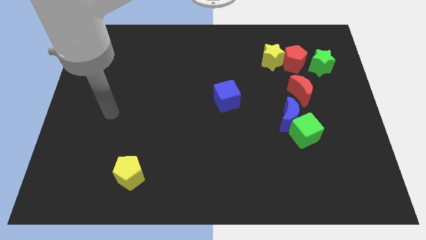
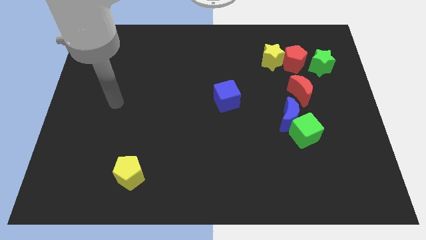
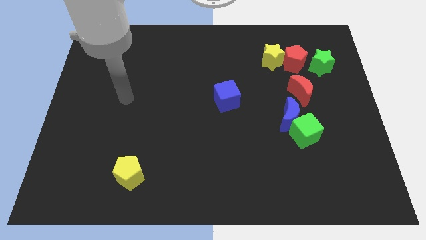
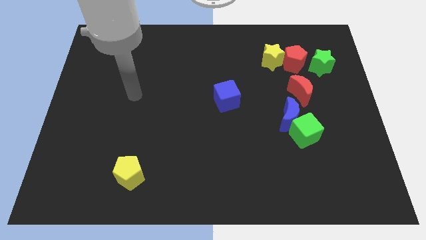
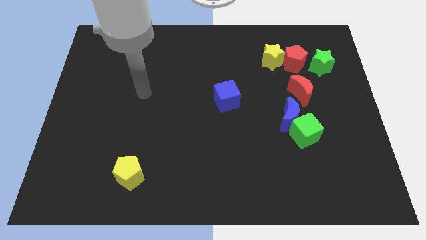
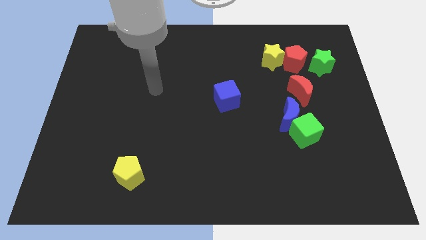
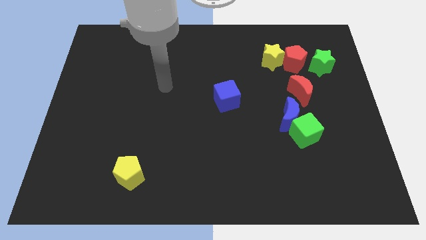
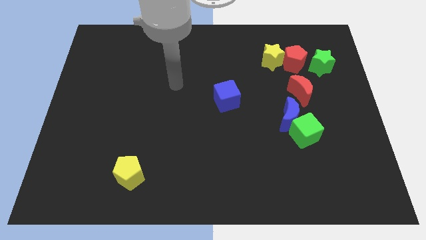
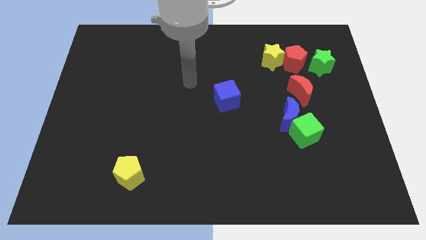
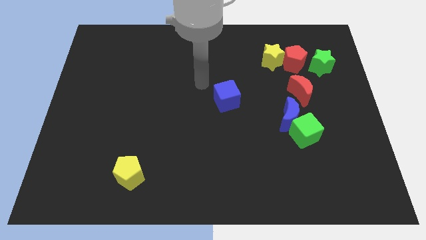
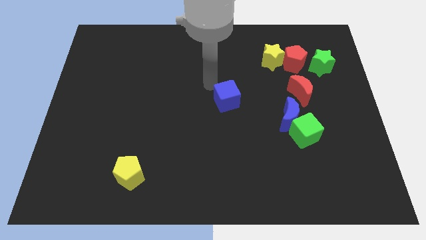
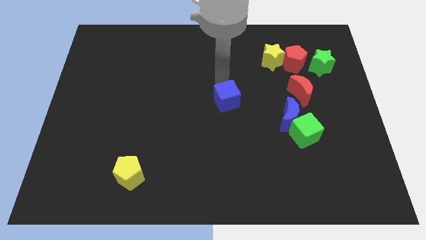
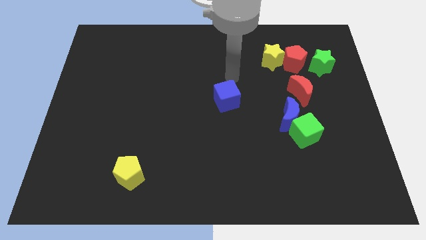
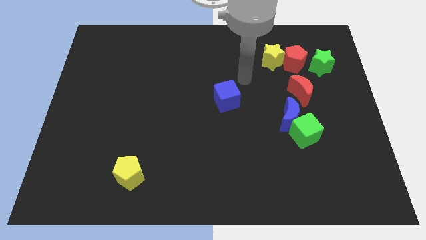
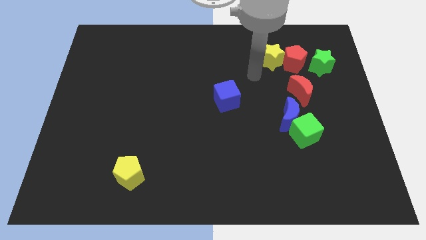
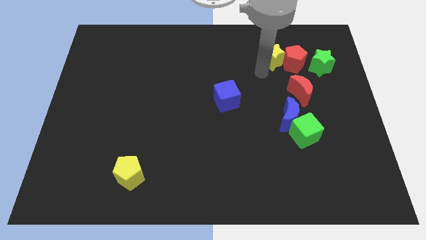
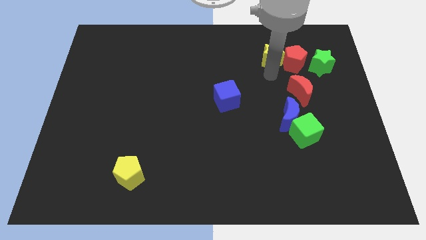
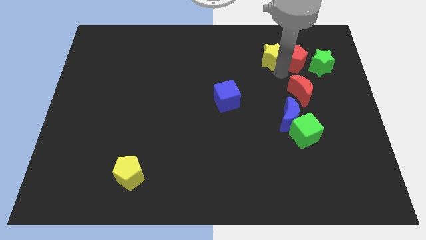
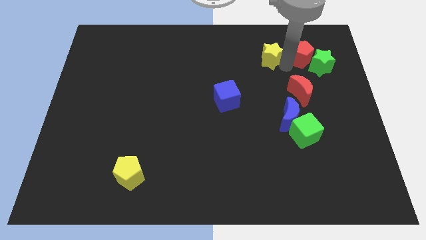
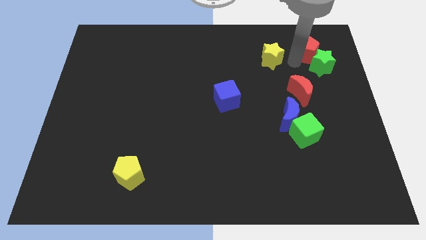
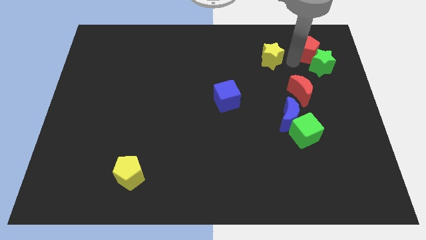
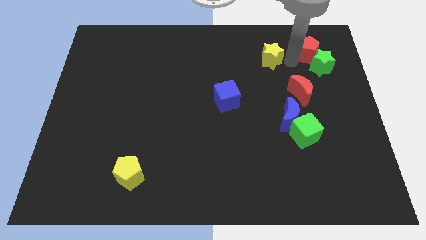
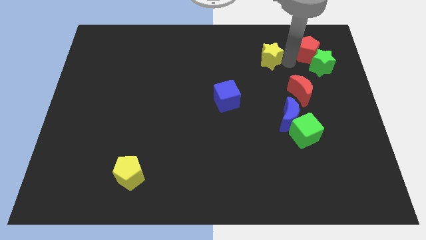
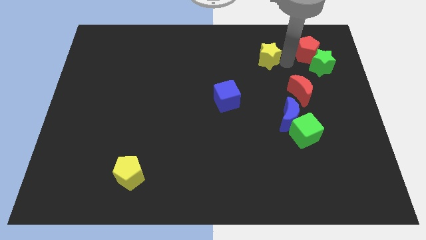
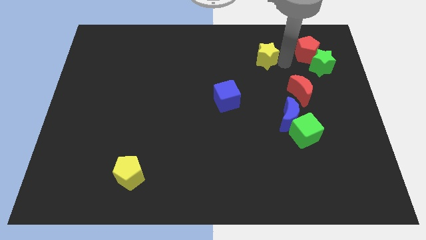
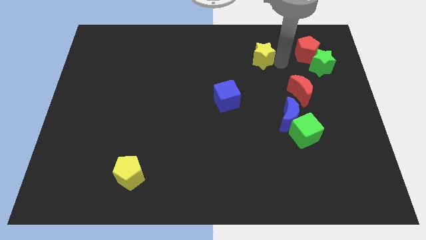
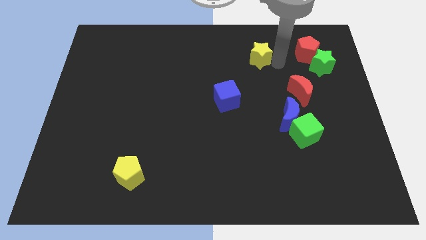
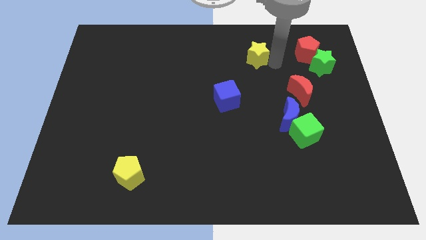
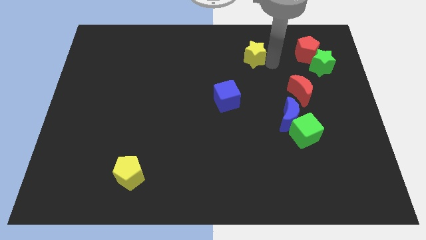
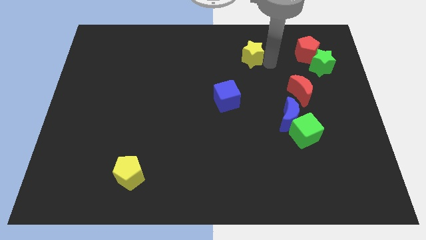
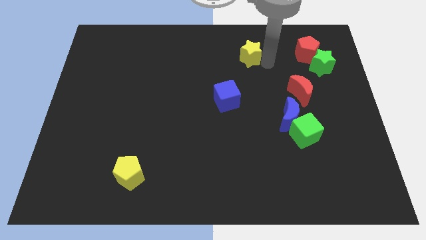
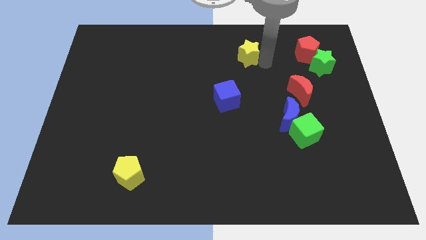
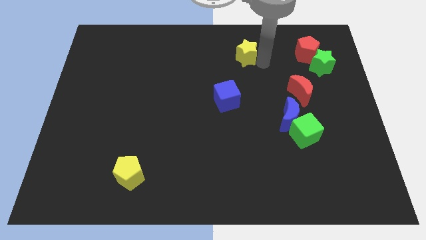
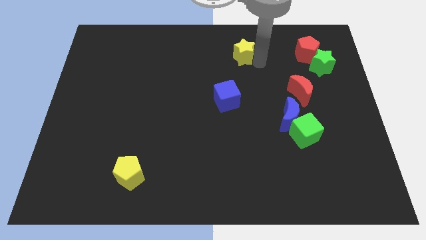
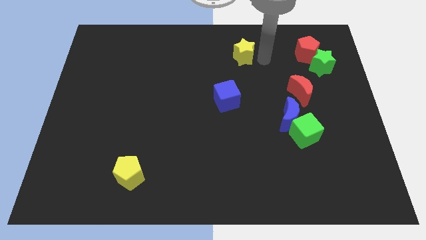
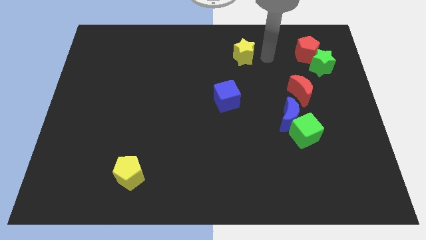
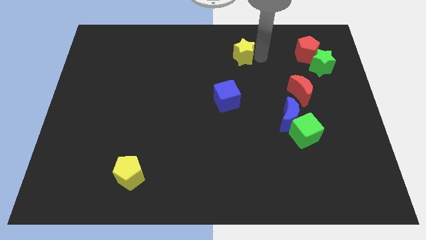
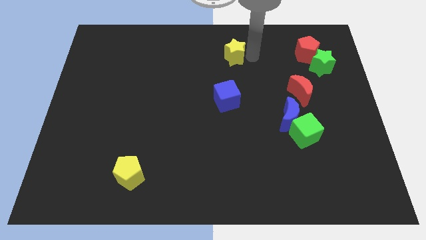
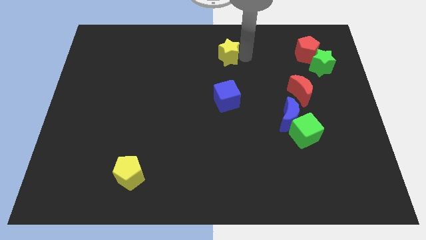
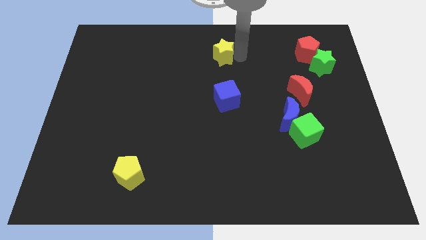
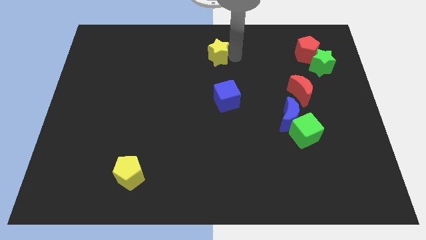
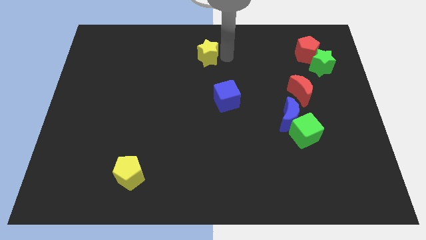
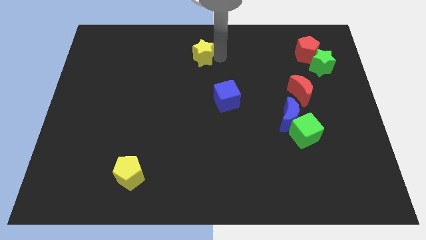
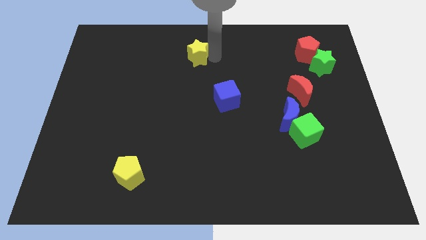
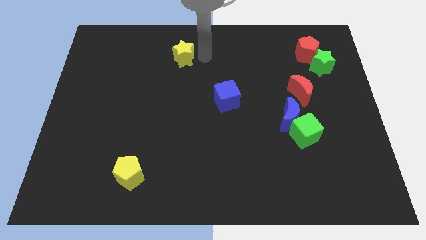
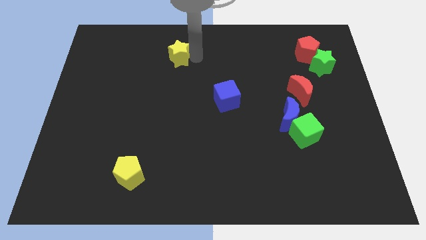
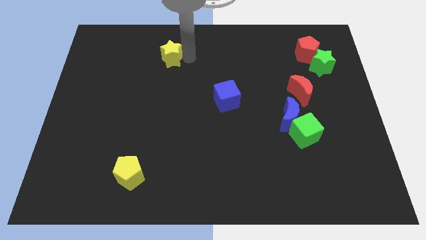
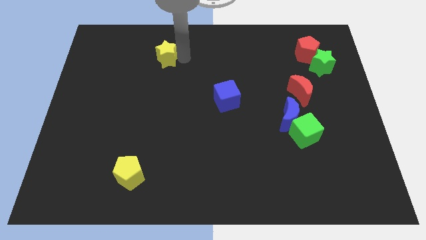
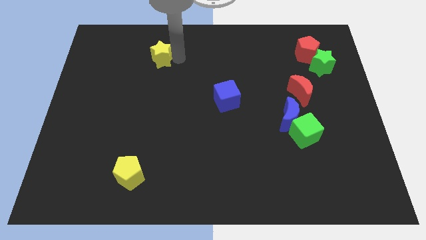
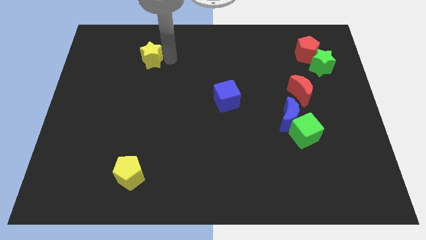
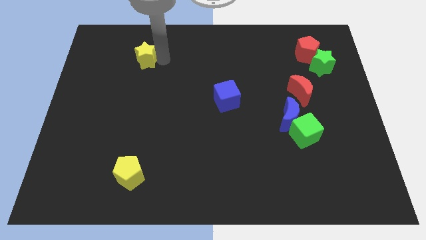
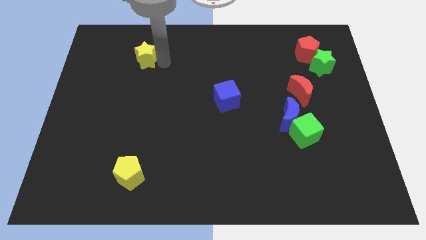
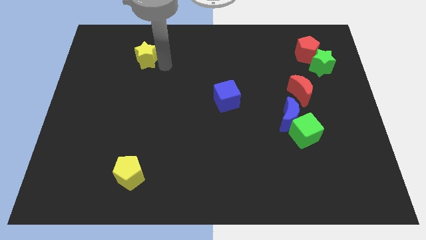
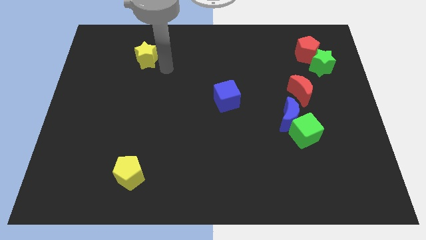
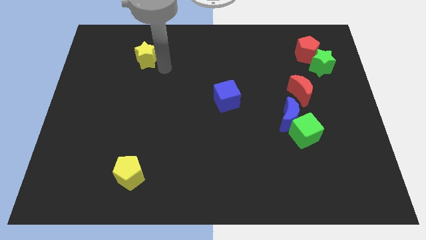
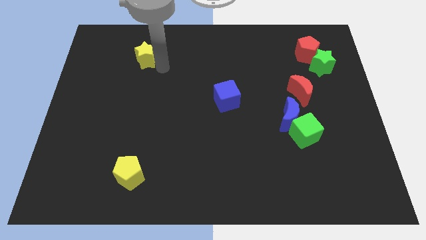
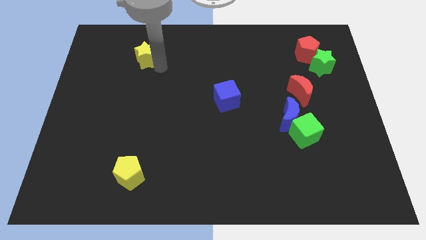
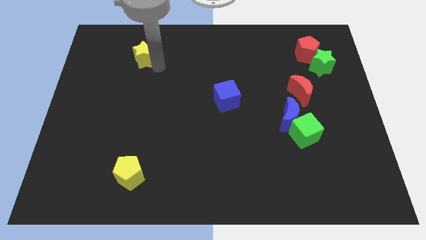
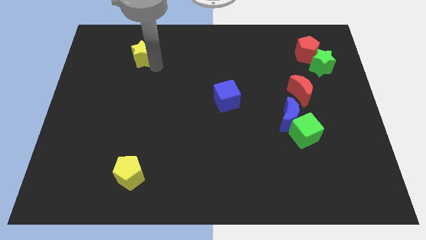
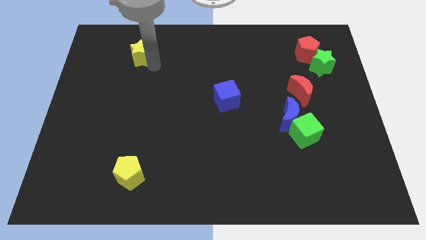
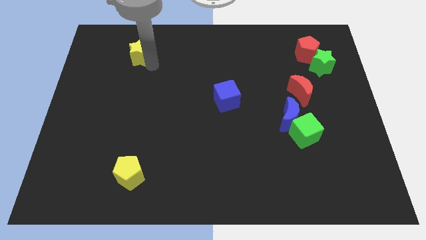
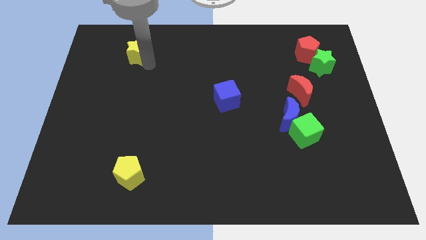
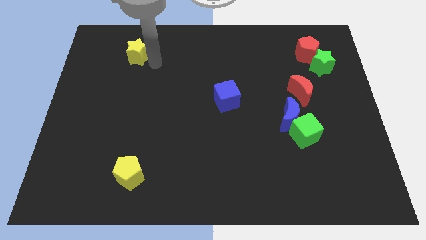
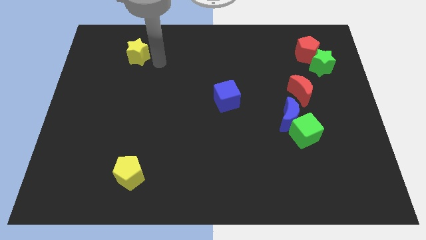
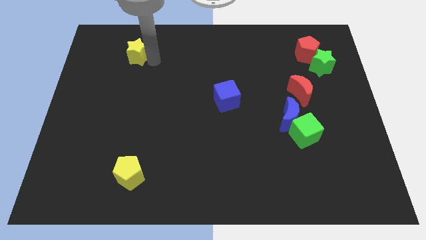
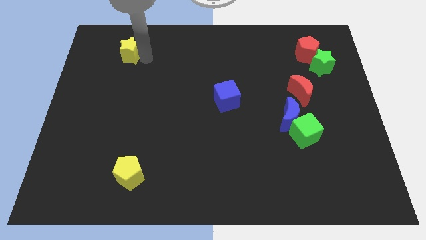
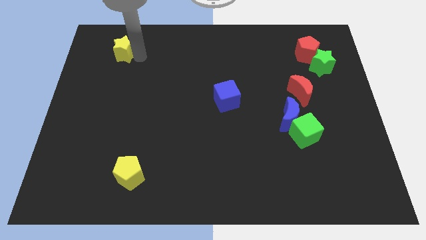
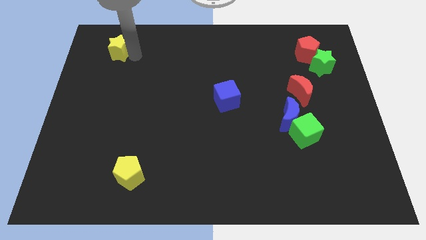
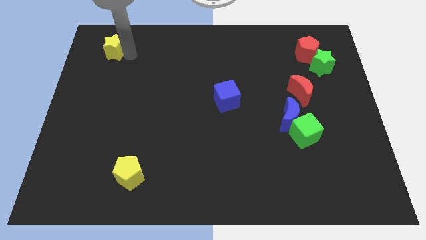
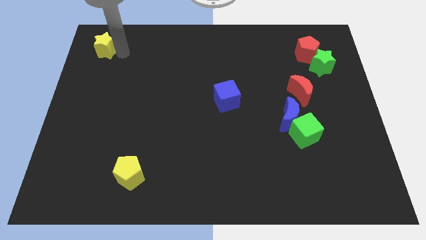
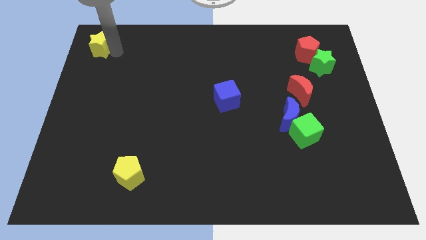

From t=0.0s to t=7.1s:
move the yellow star to the top left of the board
